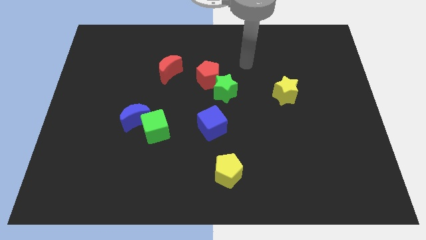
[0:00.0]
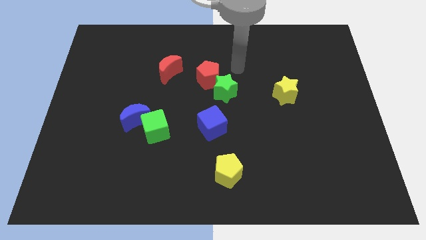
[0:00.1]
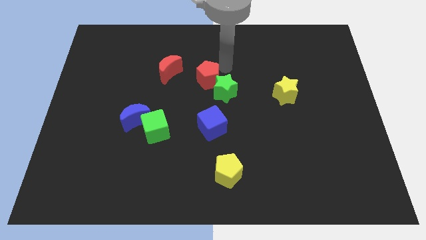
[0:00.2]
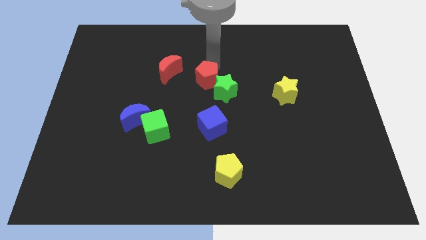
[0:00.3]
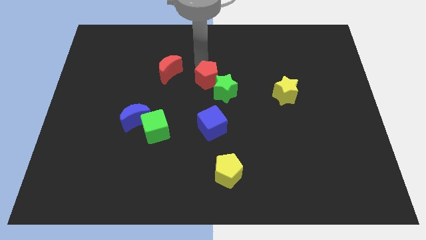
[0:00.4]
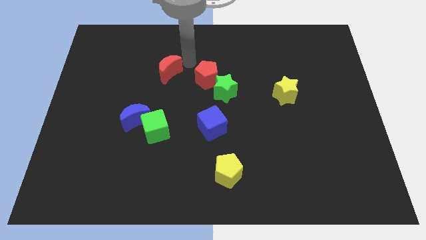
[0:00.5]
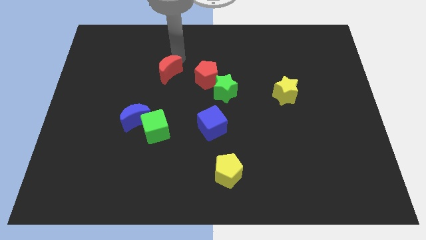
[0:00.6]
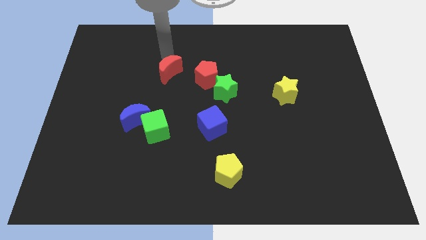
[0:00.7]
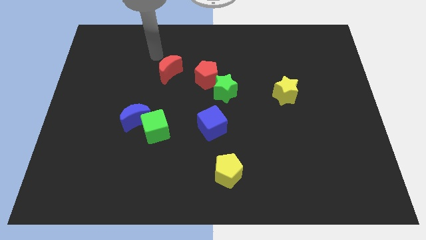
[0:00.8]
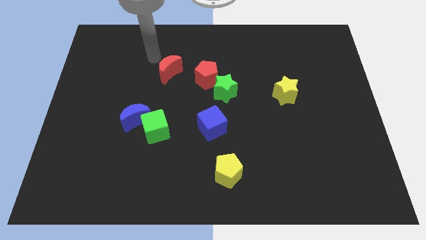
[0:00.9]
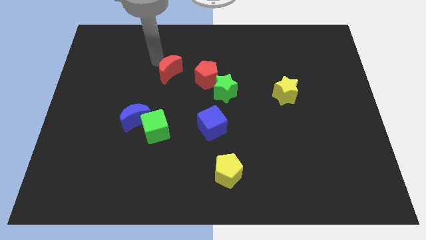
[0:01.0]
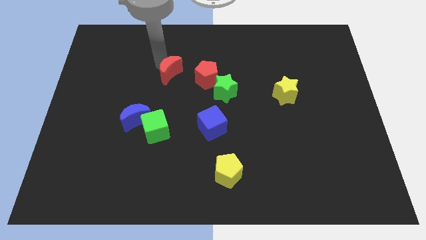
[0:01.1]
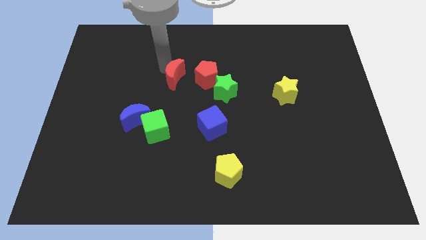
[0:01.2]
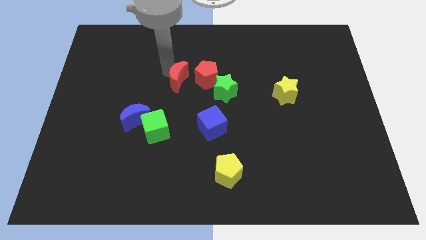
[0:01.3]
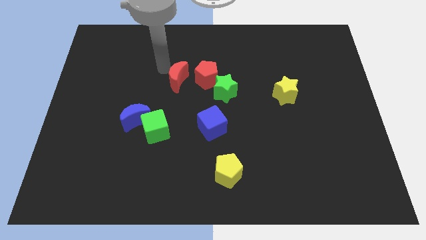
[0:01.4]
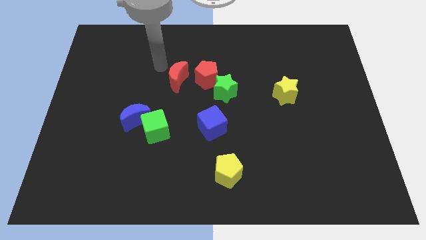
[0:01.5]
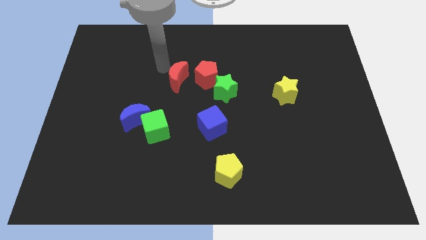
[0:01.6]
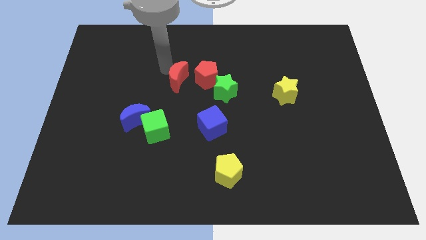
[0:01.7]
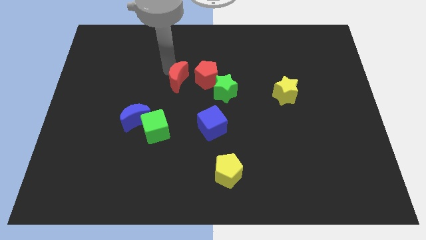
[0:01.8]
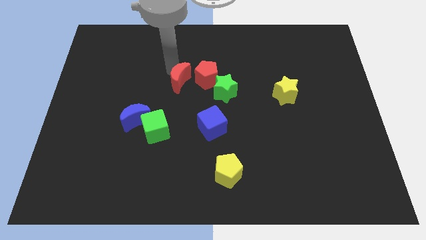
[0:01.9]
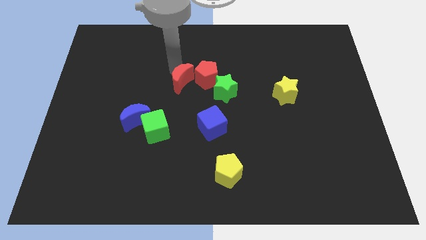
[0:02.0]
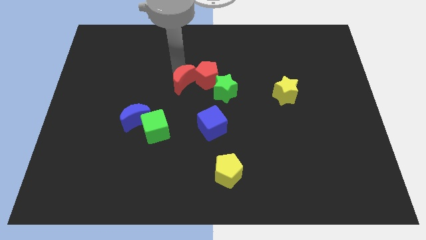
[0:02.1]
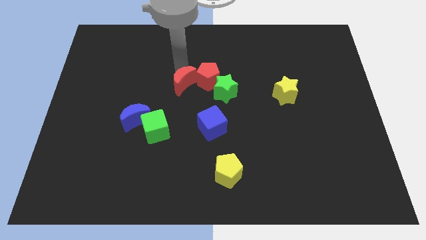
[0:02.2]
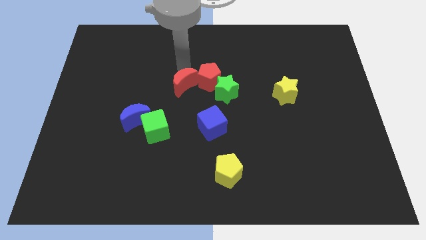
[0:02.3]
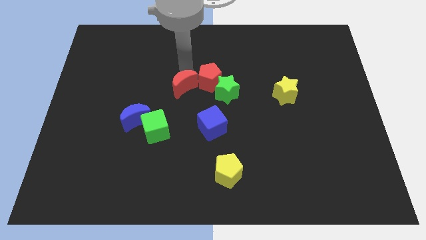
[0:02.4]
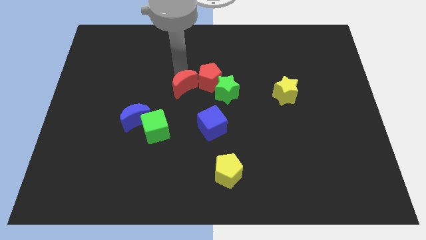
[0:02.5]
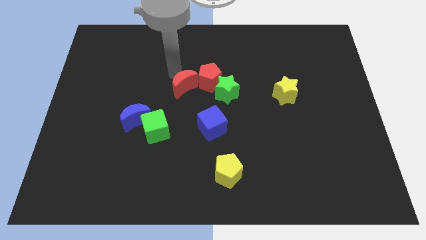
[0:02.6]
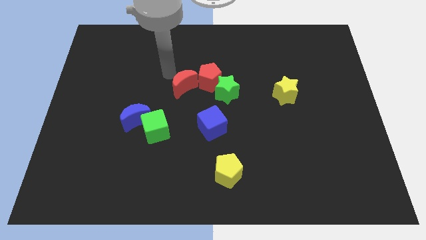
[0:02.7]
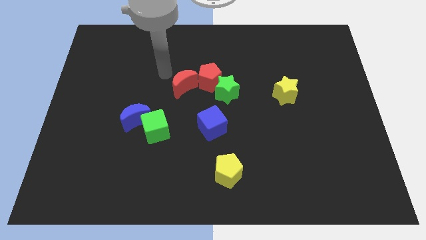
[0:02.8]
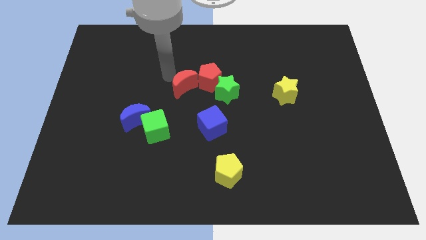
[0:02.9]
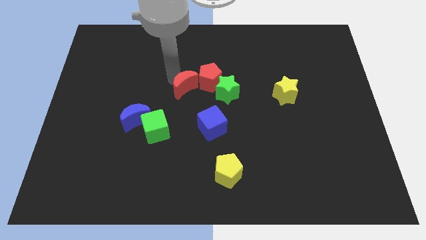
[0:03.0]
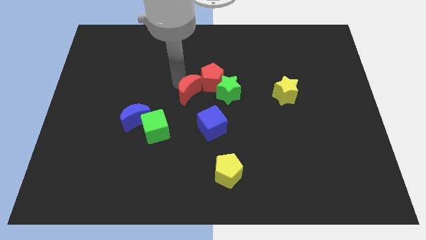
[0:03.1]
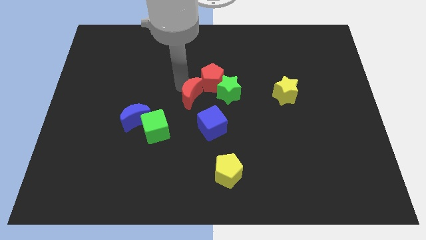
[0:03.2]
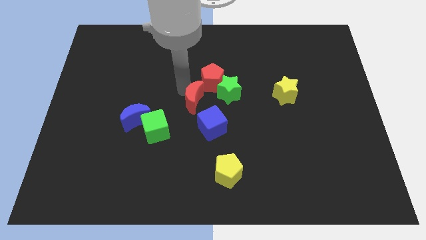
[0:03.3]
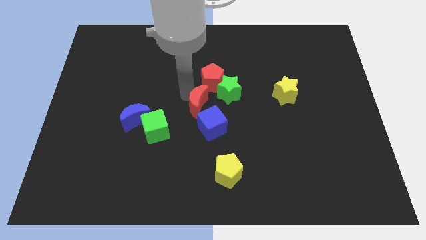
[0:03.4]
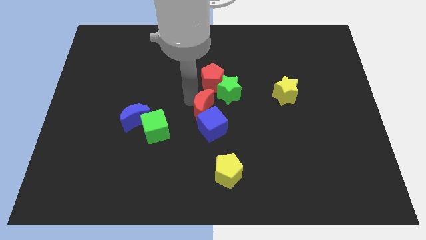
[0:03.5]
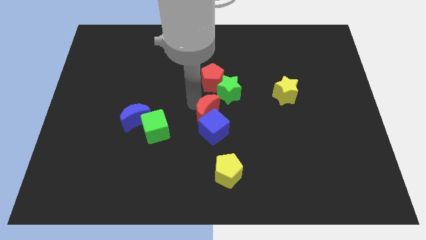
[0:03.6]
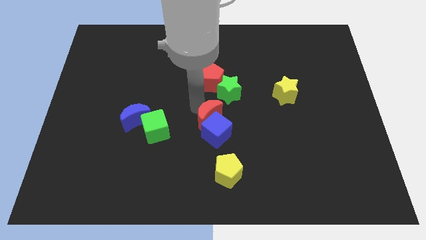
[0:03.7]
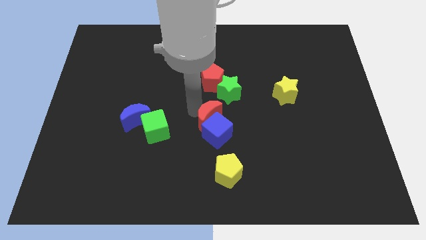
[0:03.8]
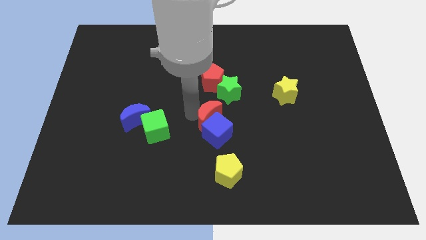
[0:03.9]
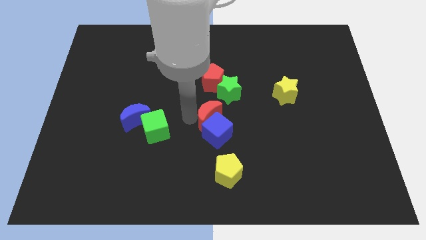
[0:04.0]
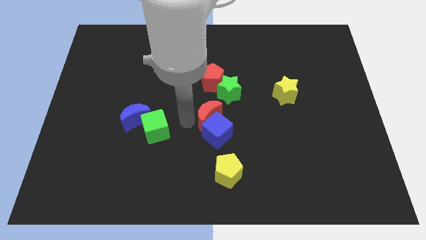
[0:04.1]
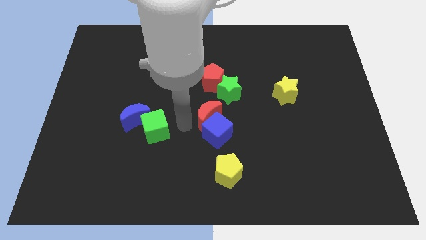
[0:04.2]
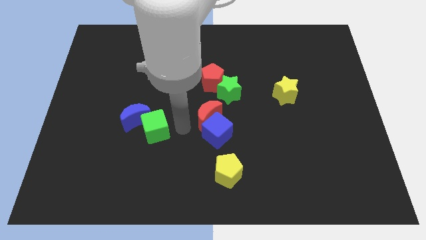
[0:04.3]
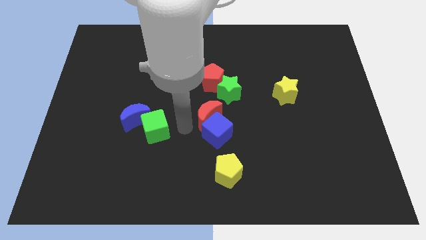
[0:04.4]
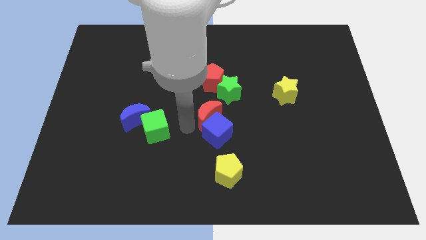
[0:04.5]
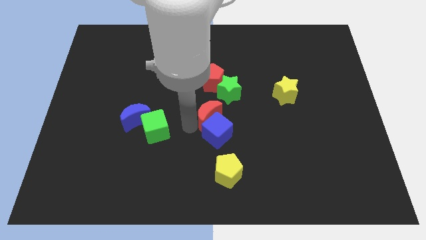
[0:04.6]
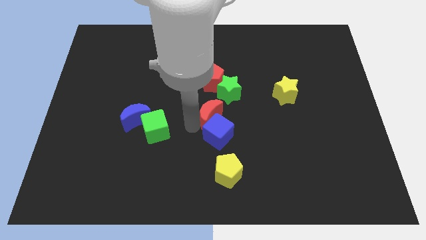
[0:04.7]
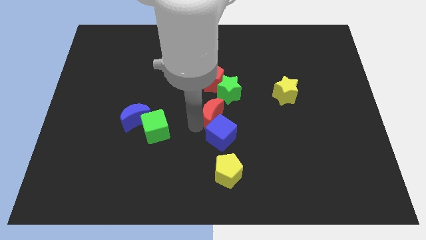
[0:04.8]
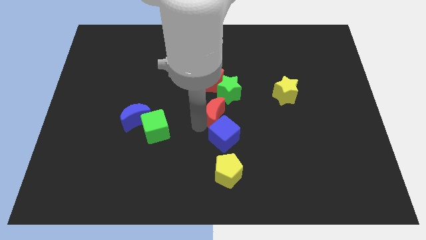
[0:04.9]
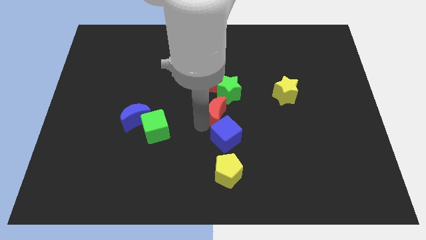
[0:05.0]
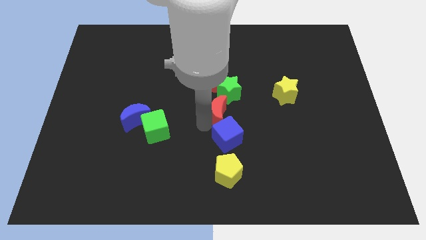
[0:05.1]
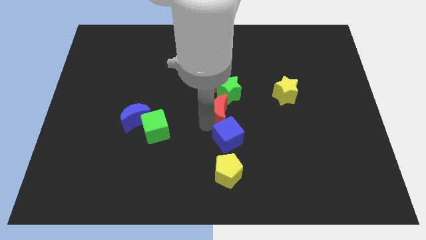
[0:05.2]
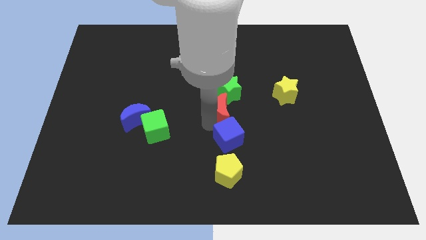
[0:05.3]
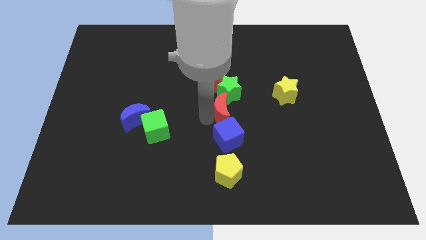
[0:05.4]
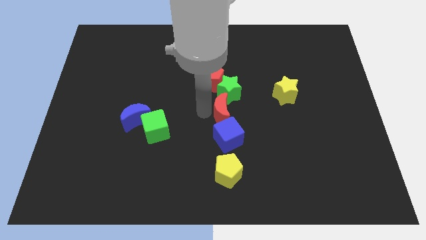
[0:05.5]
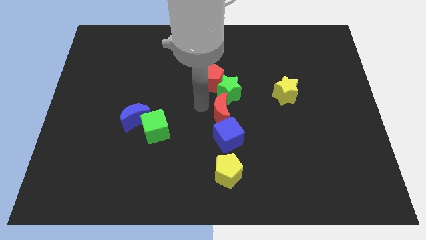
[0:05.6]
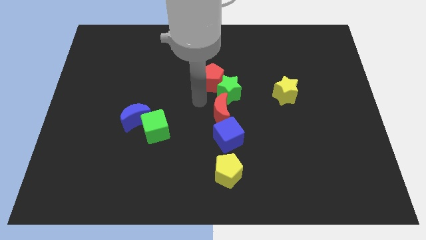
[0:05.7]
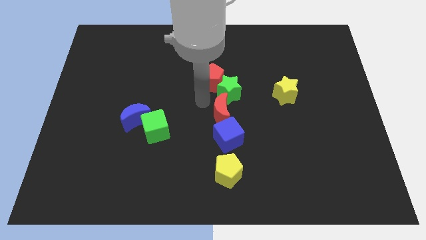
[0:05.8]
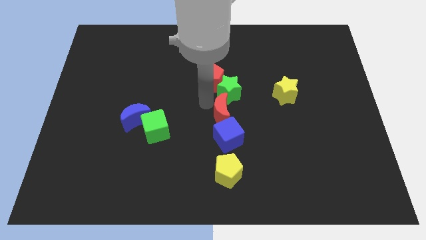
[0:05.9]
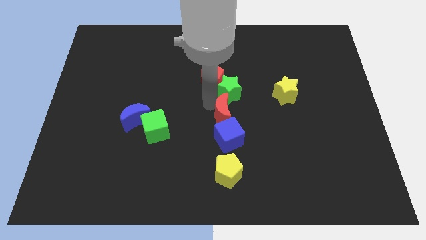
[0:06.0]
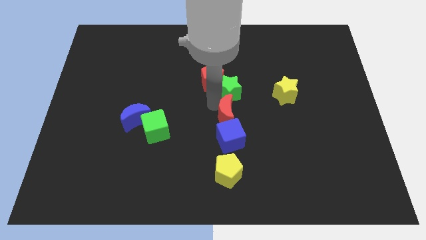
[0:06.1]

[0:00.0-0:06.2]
move the red moon diagonally down and right

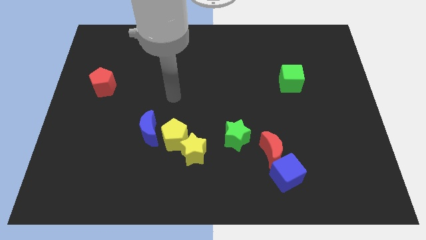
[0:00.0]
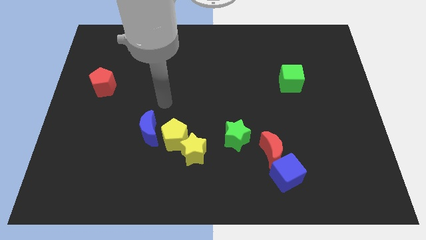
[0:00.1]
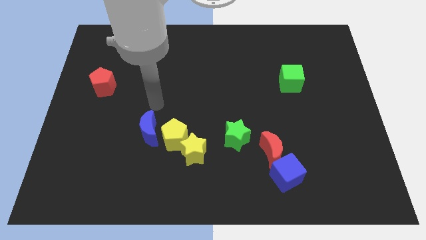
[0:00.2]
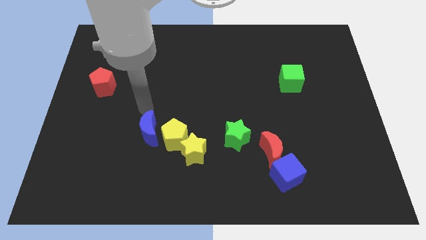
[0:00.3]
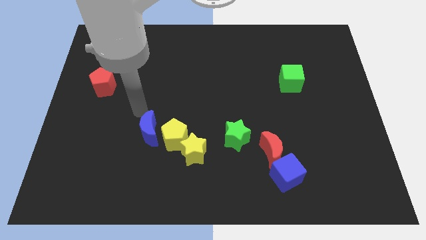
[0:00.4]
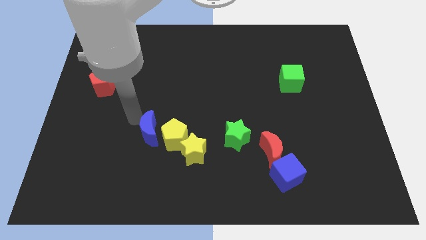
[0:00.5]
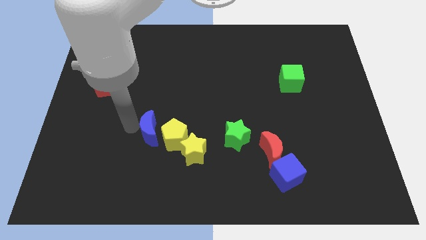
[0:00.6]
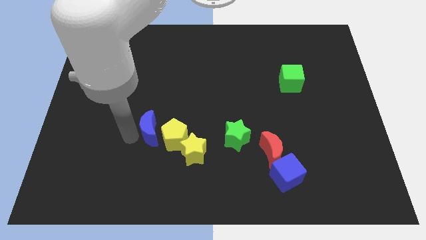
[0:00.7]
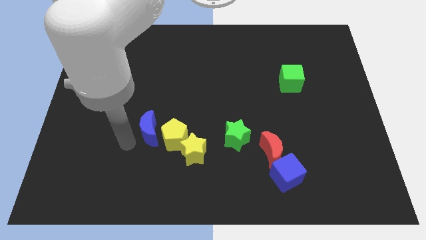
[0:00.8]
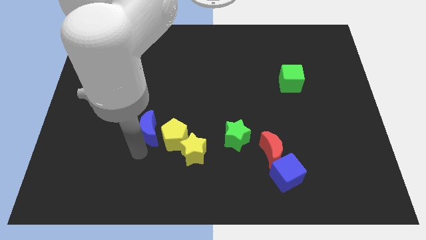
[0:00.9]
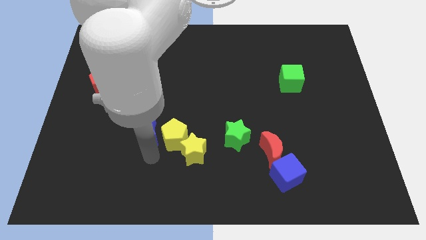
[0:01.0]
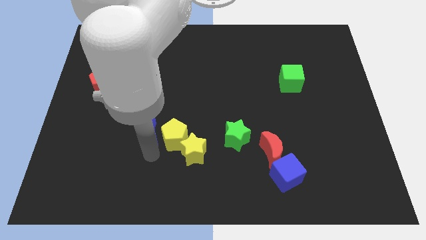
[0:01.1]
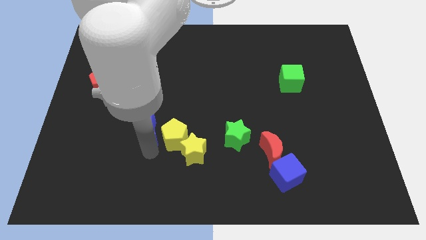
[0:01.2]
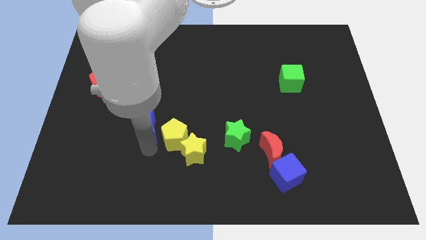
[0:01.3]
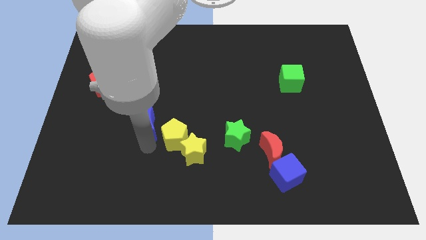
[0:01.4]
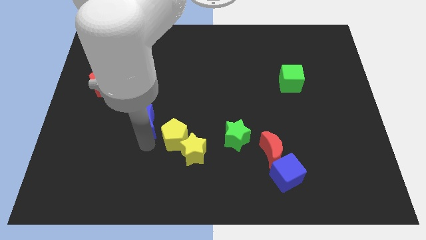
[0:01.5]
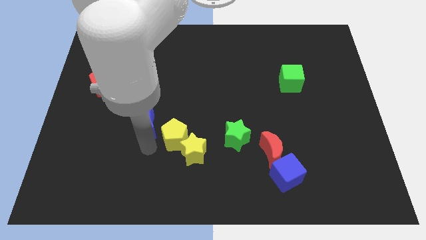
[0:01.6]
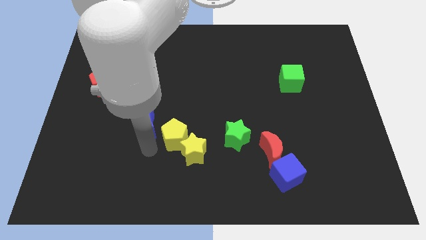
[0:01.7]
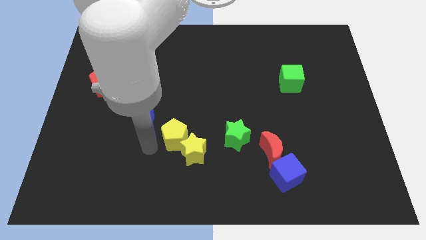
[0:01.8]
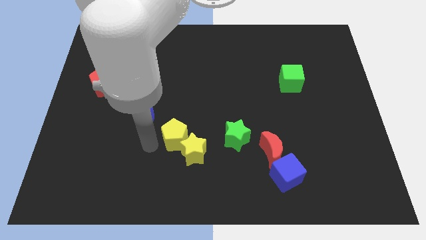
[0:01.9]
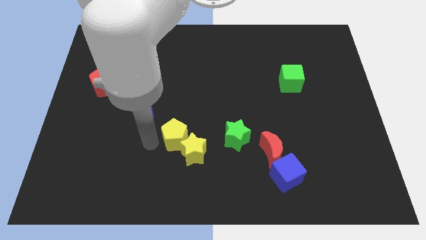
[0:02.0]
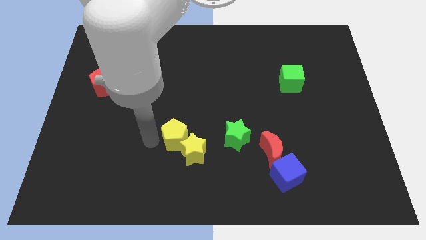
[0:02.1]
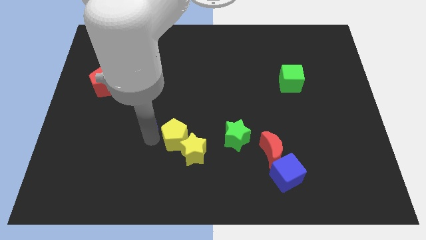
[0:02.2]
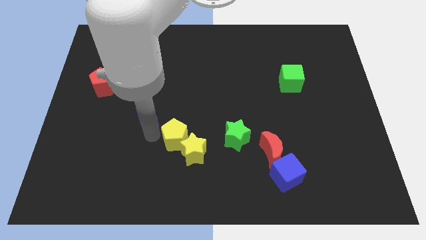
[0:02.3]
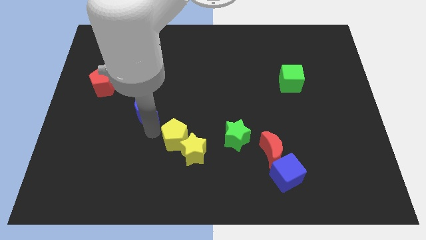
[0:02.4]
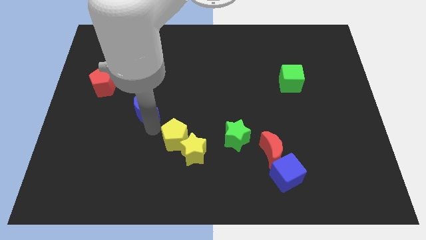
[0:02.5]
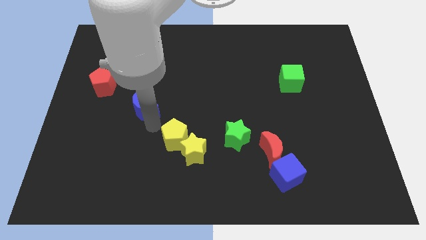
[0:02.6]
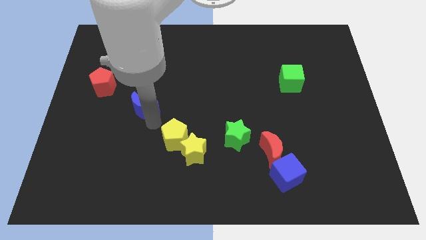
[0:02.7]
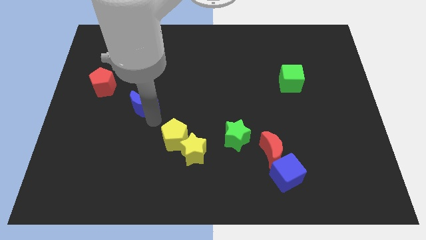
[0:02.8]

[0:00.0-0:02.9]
slide the blue moon a little up
